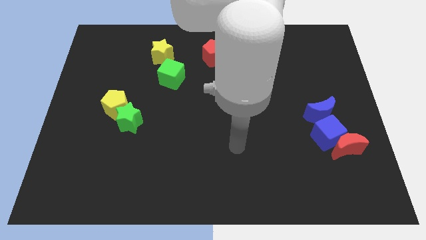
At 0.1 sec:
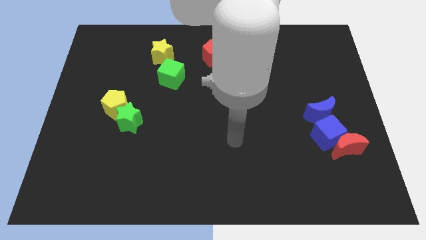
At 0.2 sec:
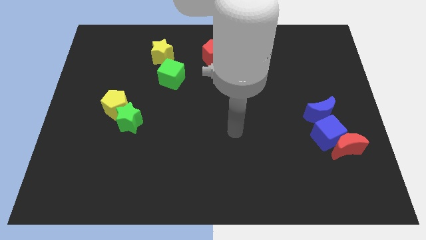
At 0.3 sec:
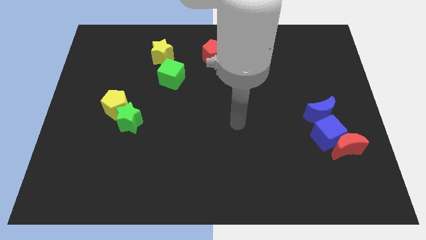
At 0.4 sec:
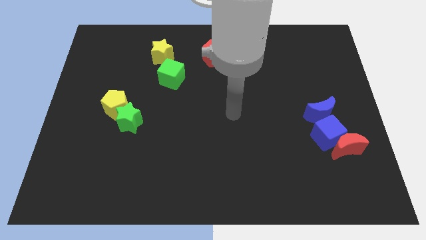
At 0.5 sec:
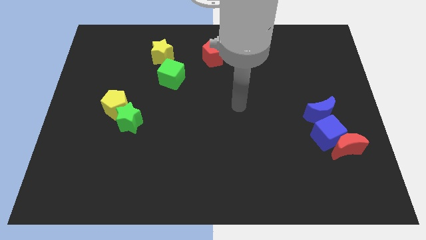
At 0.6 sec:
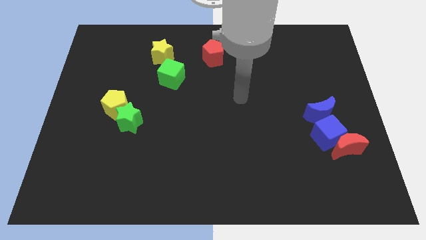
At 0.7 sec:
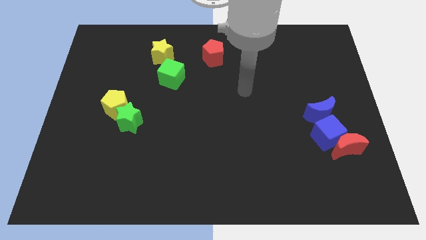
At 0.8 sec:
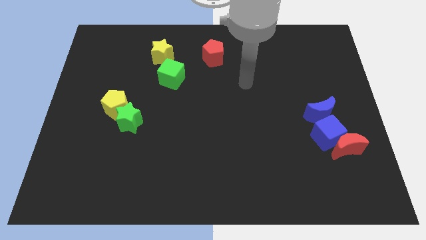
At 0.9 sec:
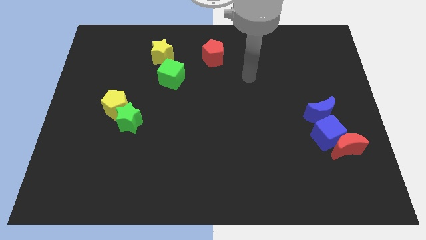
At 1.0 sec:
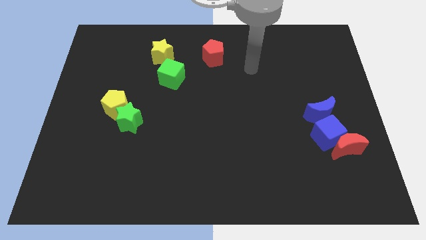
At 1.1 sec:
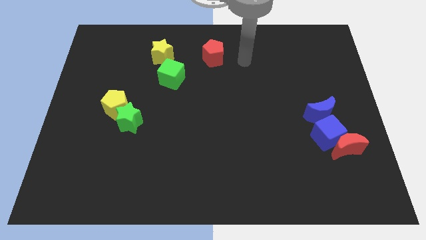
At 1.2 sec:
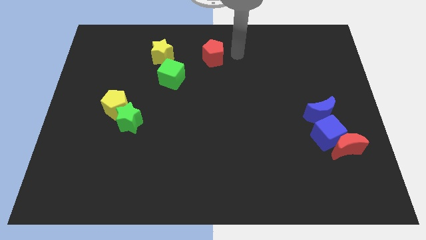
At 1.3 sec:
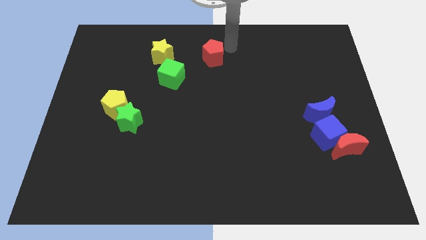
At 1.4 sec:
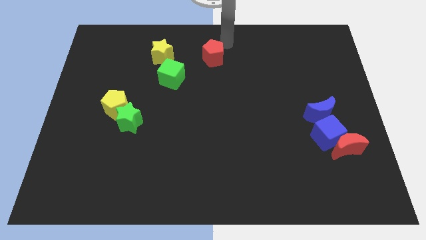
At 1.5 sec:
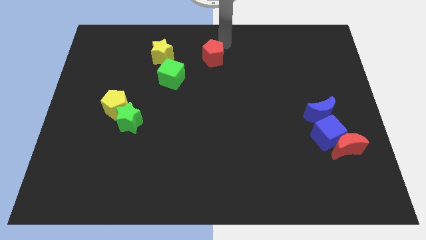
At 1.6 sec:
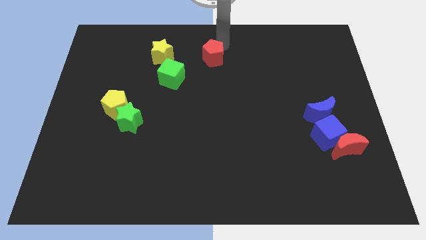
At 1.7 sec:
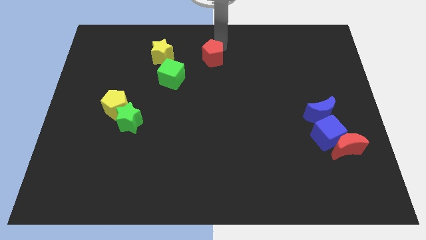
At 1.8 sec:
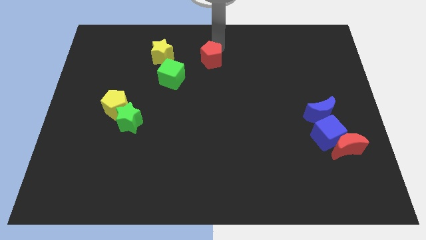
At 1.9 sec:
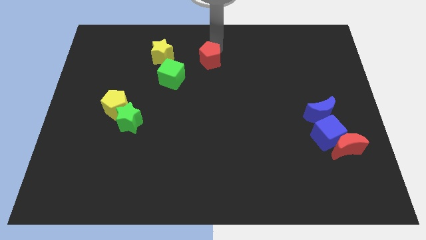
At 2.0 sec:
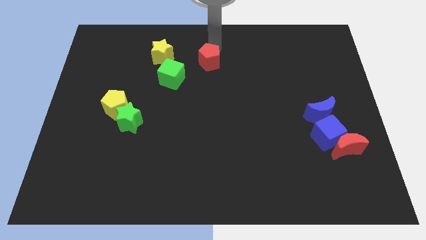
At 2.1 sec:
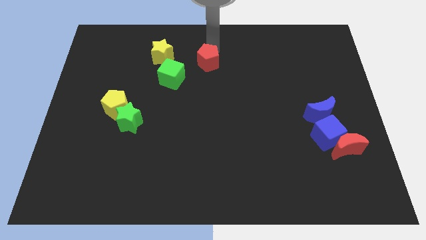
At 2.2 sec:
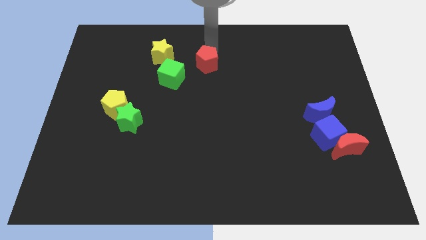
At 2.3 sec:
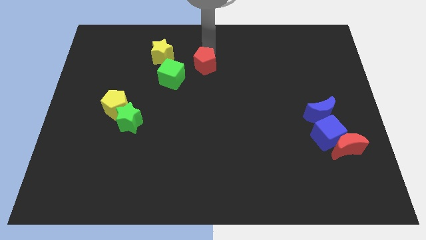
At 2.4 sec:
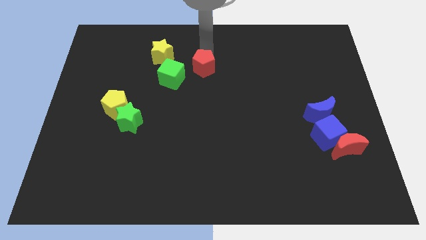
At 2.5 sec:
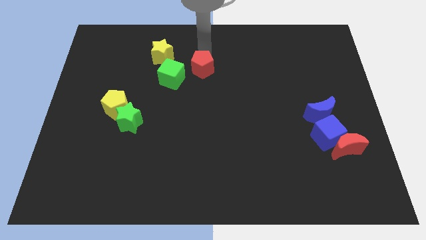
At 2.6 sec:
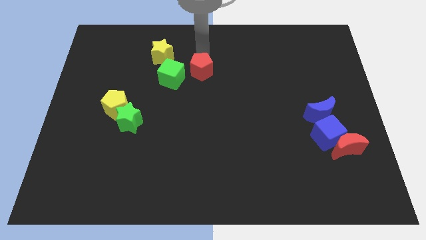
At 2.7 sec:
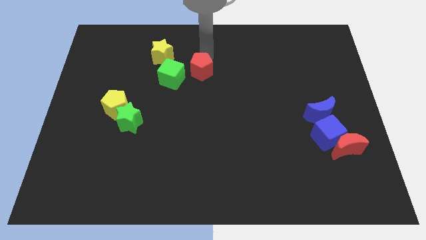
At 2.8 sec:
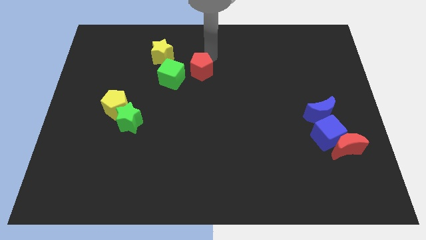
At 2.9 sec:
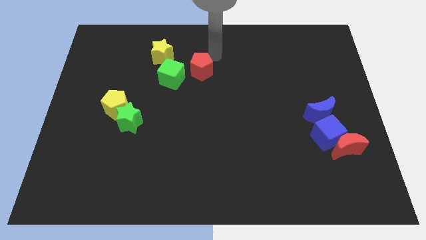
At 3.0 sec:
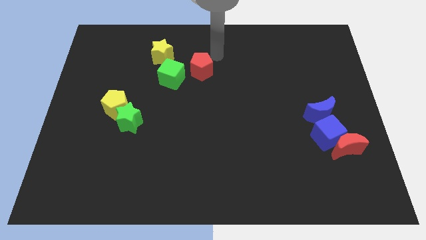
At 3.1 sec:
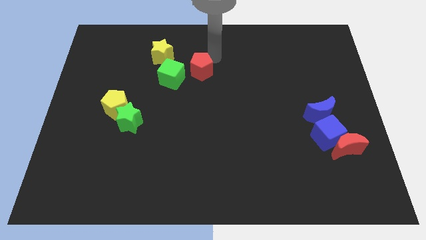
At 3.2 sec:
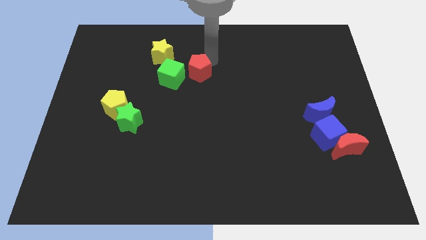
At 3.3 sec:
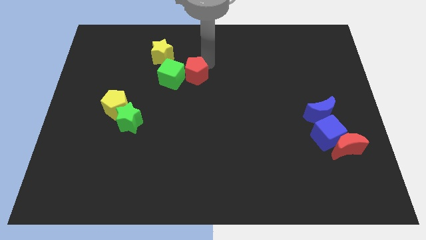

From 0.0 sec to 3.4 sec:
slide the red pentagon down and then left a bit

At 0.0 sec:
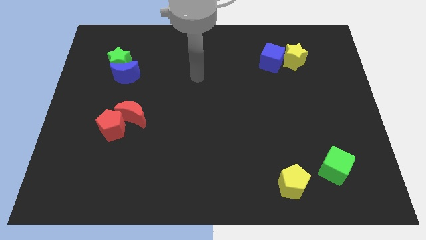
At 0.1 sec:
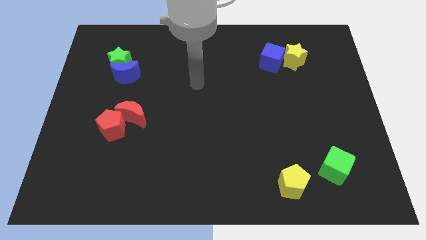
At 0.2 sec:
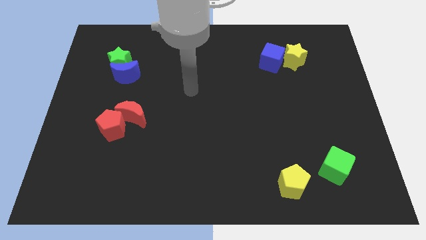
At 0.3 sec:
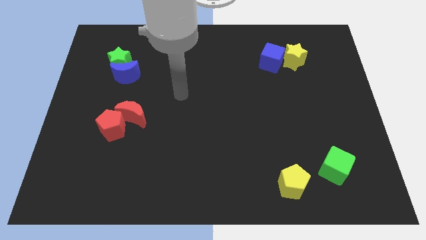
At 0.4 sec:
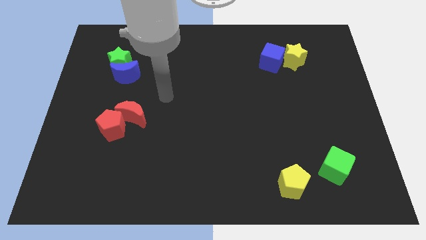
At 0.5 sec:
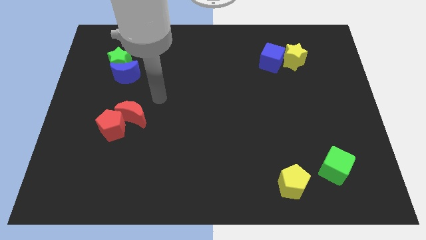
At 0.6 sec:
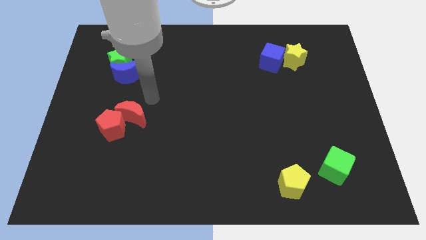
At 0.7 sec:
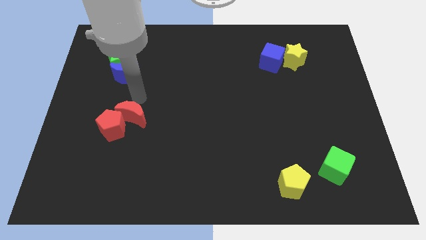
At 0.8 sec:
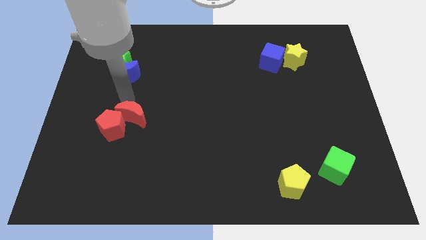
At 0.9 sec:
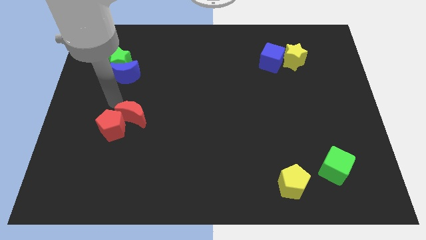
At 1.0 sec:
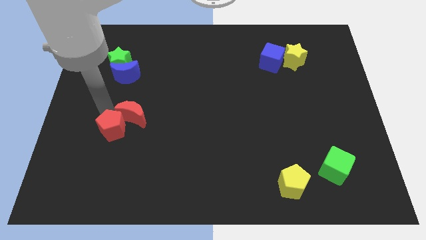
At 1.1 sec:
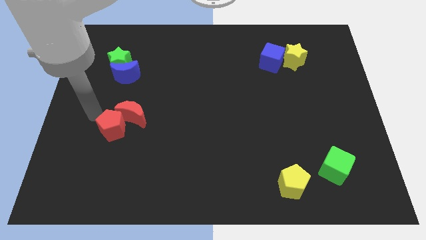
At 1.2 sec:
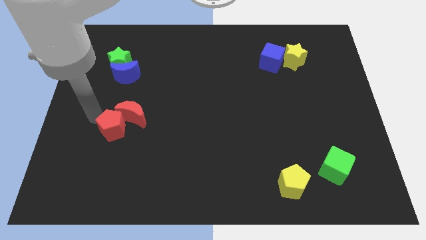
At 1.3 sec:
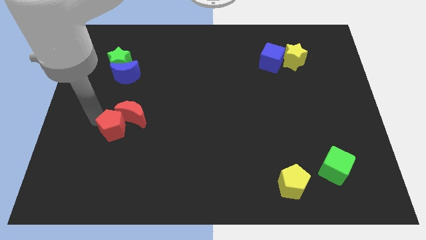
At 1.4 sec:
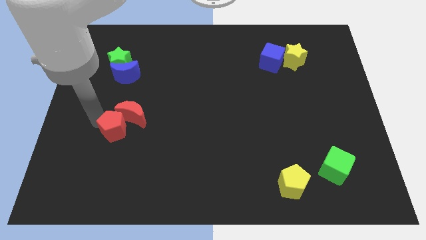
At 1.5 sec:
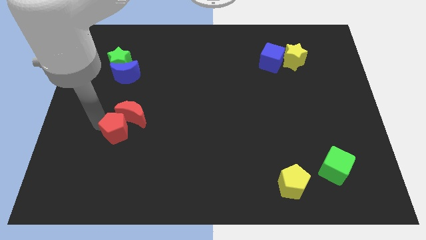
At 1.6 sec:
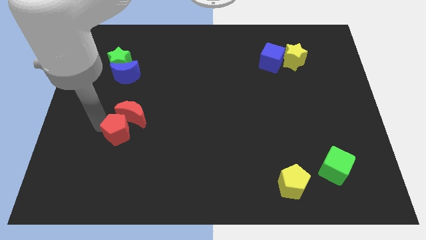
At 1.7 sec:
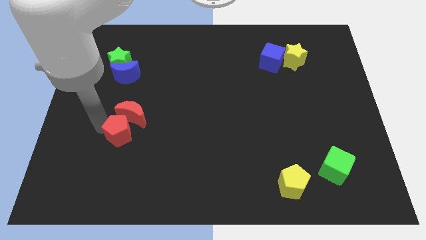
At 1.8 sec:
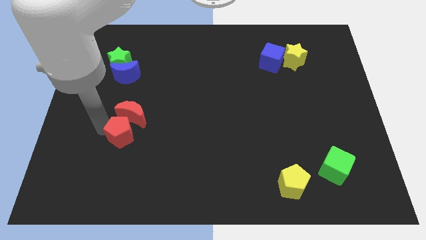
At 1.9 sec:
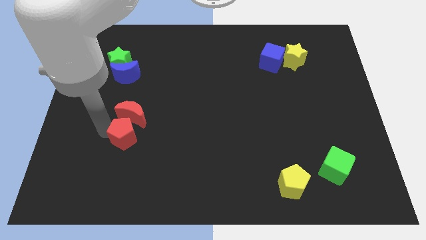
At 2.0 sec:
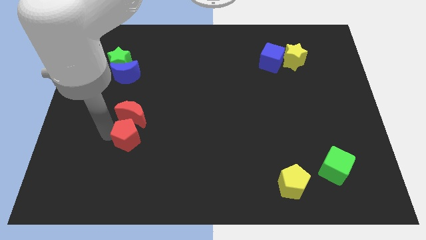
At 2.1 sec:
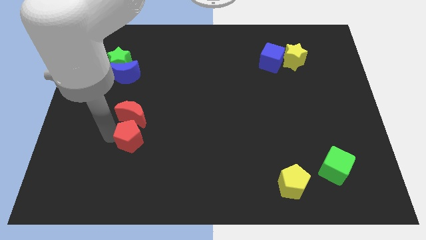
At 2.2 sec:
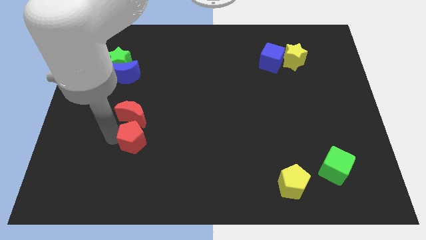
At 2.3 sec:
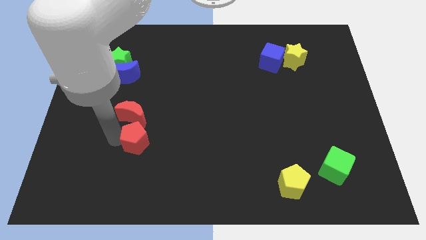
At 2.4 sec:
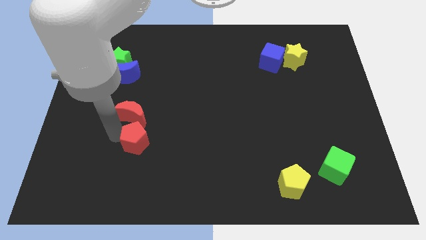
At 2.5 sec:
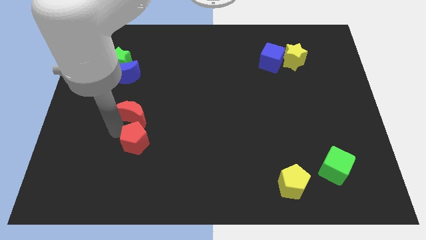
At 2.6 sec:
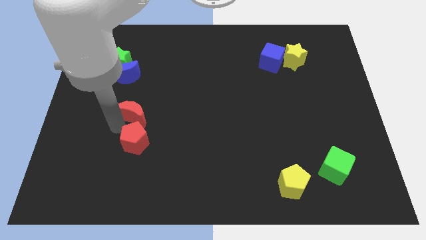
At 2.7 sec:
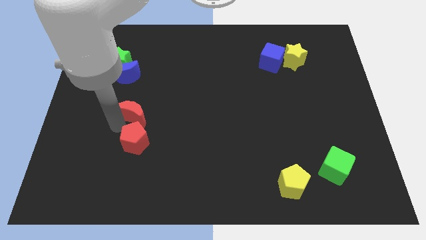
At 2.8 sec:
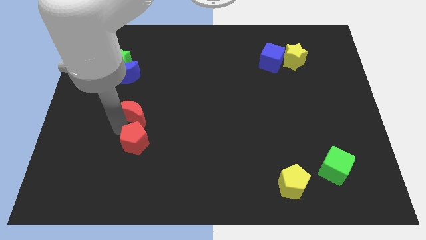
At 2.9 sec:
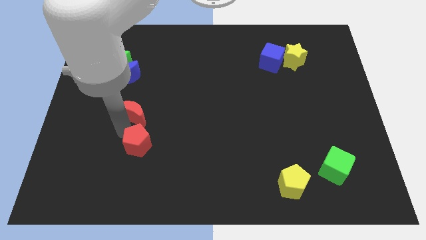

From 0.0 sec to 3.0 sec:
slightly move the red pentagon diagonally downwards and right

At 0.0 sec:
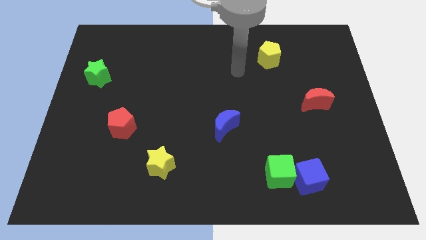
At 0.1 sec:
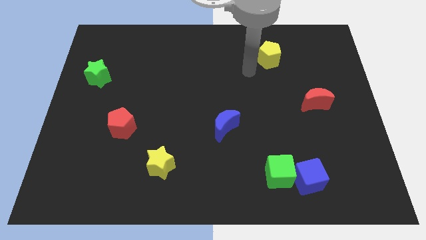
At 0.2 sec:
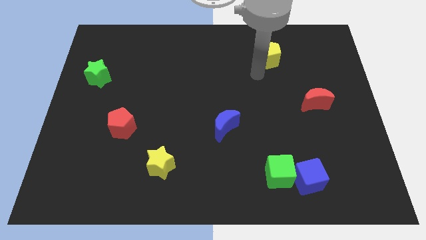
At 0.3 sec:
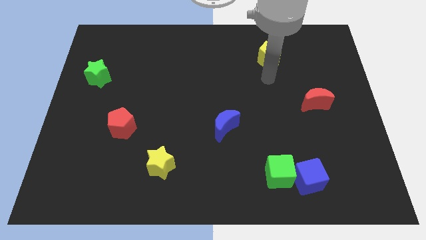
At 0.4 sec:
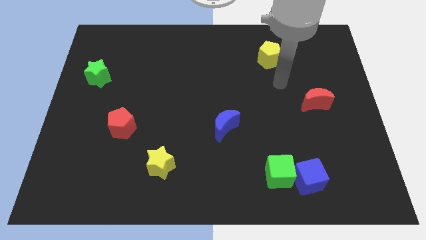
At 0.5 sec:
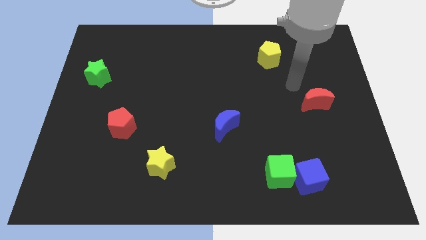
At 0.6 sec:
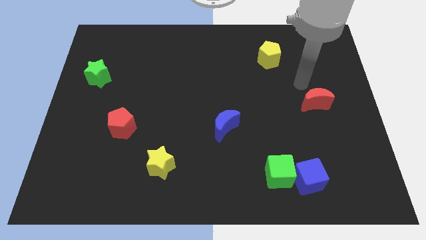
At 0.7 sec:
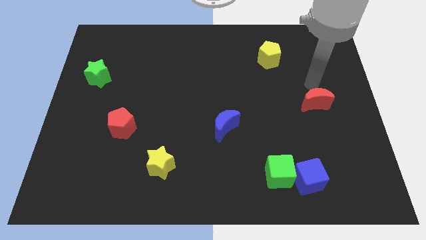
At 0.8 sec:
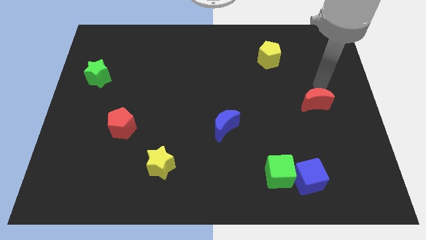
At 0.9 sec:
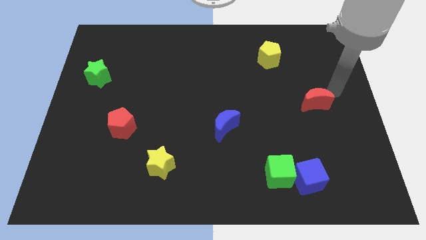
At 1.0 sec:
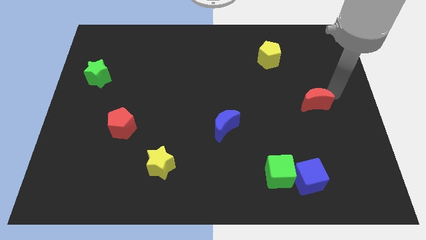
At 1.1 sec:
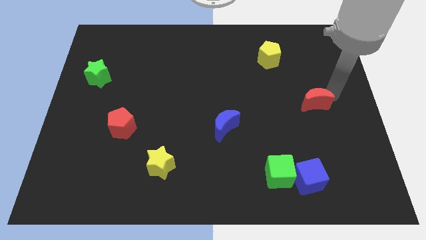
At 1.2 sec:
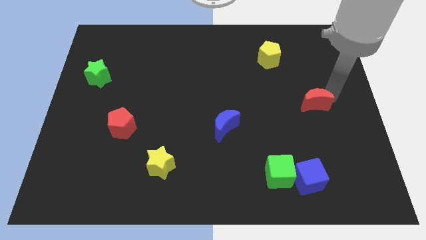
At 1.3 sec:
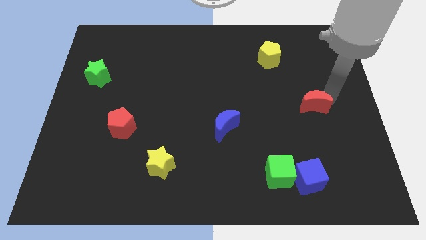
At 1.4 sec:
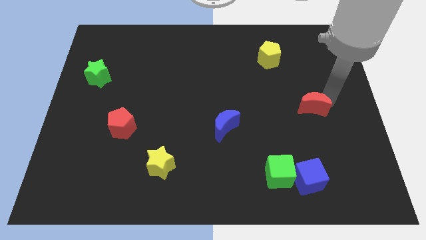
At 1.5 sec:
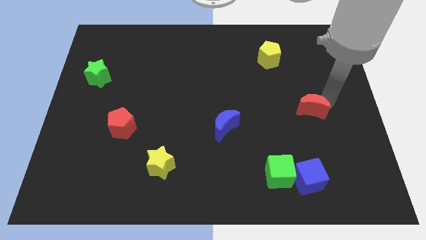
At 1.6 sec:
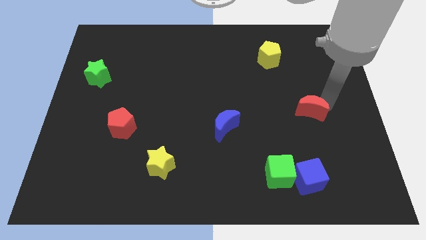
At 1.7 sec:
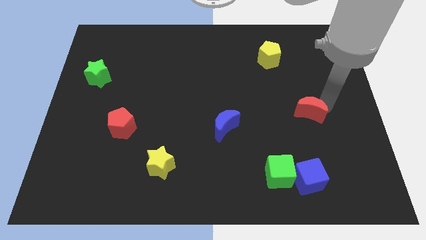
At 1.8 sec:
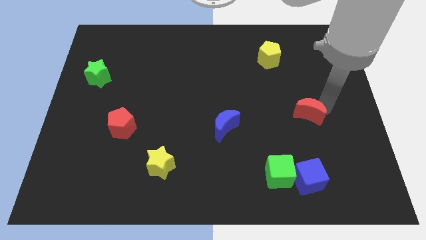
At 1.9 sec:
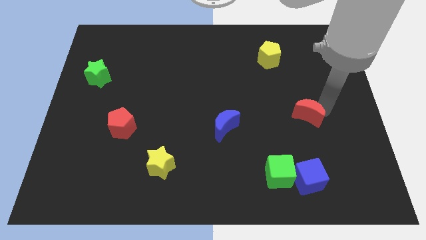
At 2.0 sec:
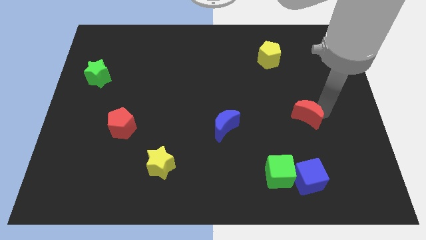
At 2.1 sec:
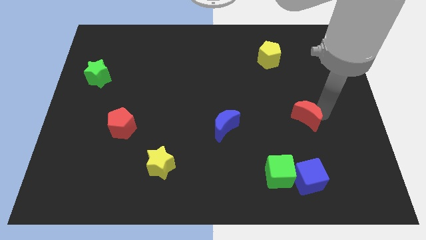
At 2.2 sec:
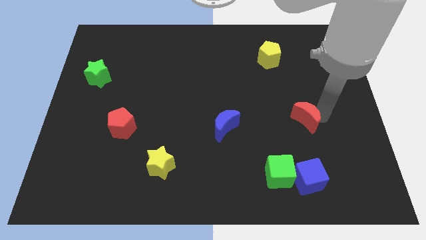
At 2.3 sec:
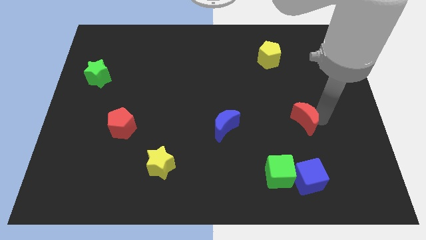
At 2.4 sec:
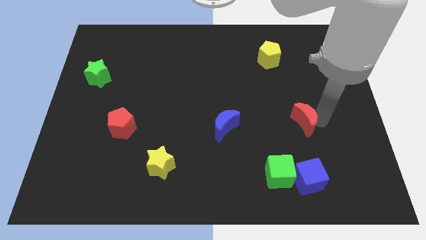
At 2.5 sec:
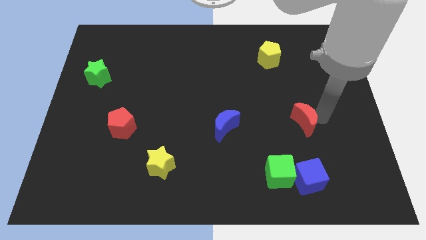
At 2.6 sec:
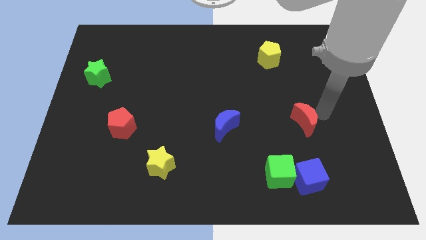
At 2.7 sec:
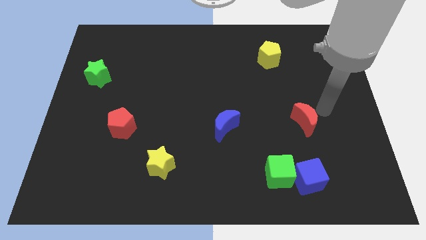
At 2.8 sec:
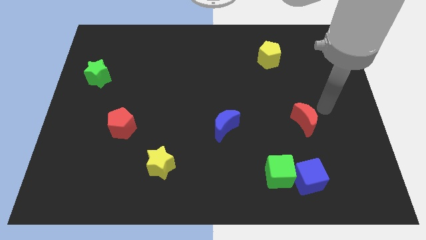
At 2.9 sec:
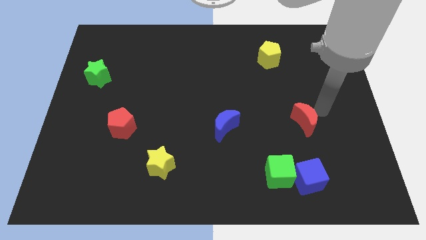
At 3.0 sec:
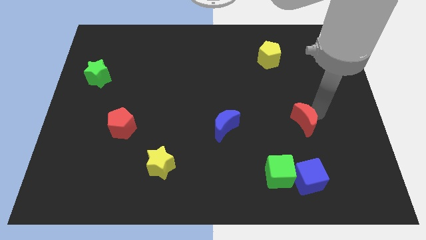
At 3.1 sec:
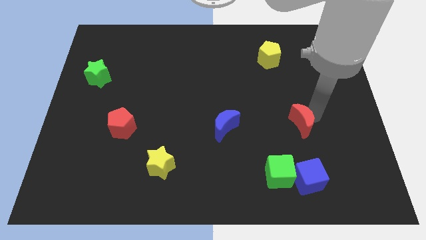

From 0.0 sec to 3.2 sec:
slide the red moon downwards and then left a bit
